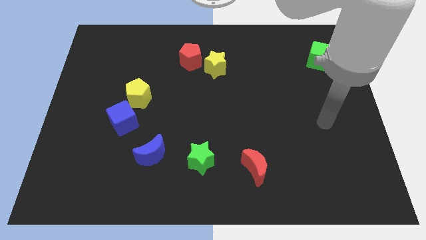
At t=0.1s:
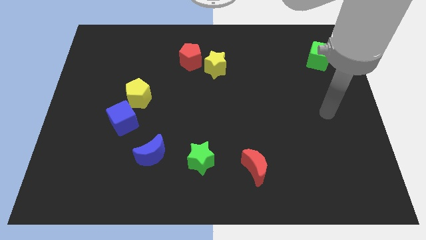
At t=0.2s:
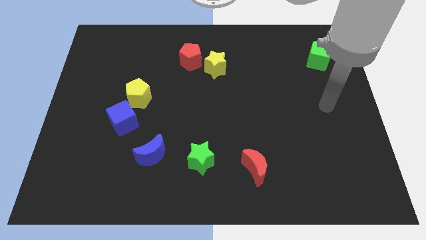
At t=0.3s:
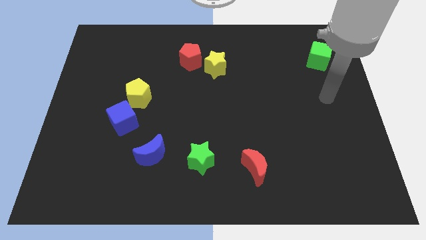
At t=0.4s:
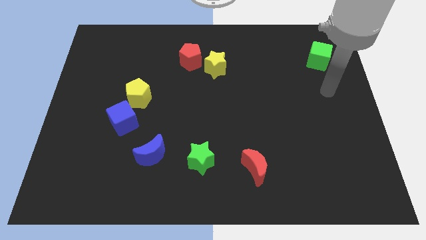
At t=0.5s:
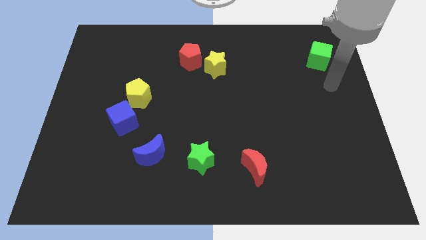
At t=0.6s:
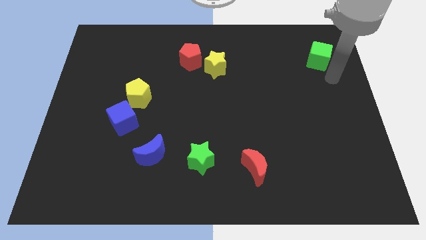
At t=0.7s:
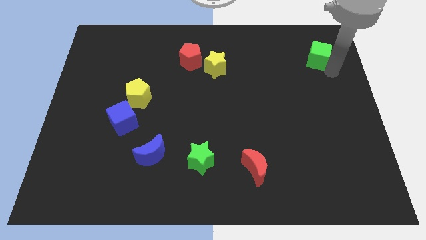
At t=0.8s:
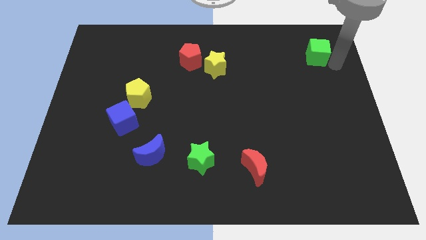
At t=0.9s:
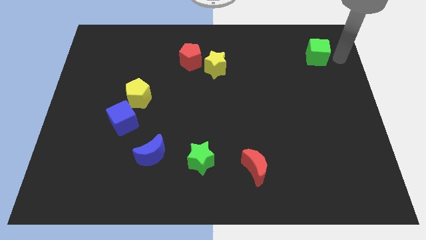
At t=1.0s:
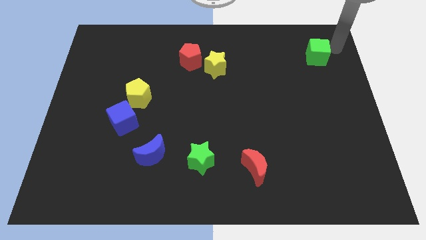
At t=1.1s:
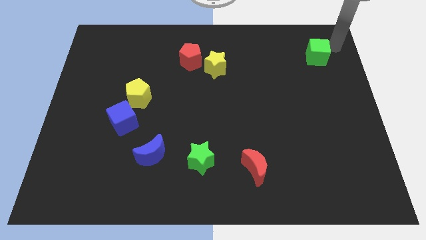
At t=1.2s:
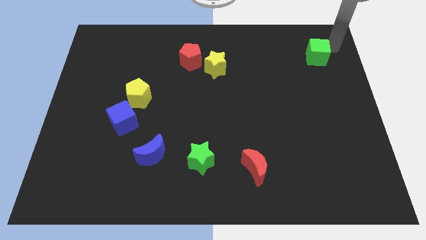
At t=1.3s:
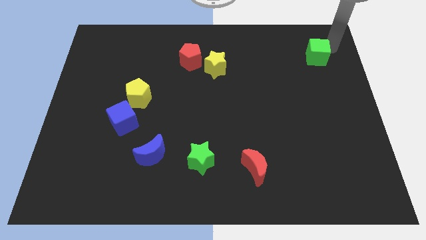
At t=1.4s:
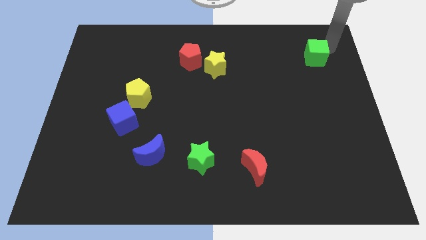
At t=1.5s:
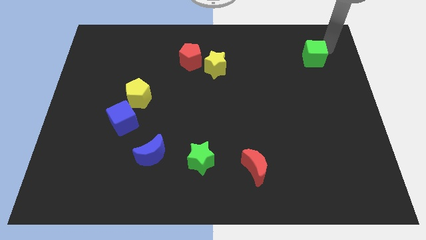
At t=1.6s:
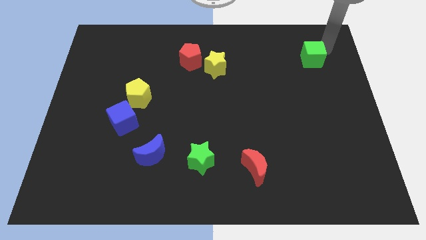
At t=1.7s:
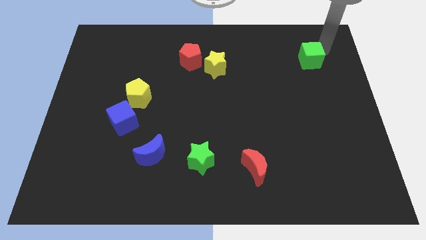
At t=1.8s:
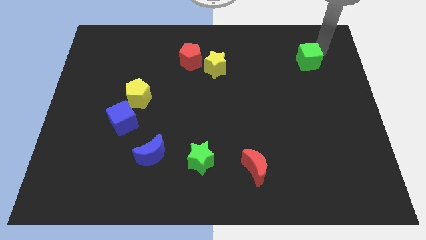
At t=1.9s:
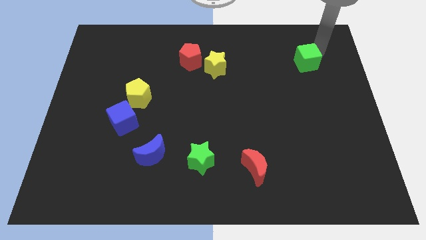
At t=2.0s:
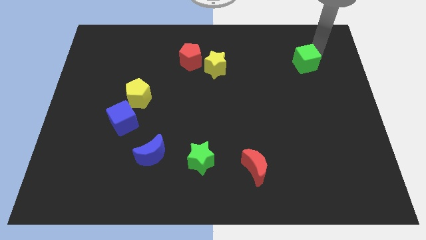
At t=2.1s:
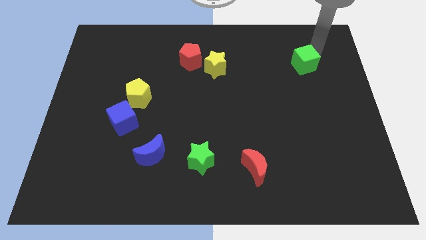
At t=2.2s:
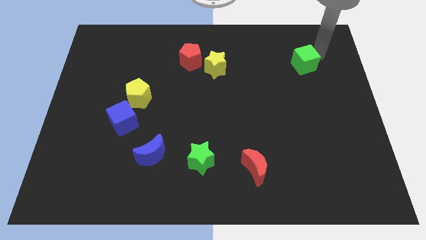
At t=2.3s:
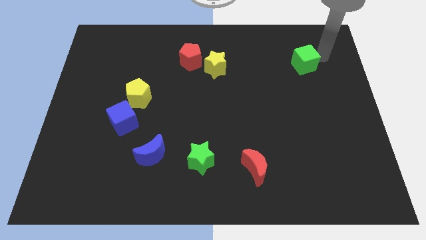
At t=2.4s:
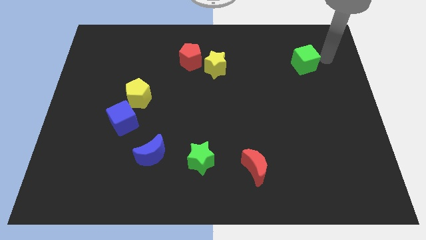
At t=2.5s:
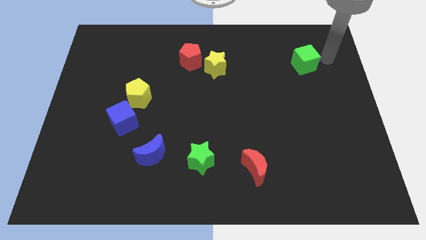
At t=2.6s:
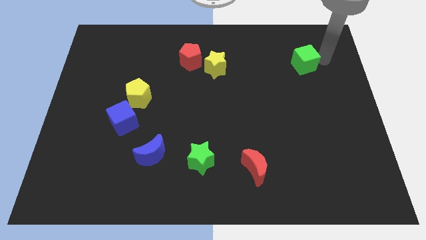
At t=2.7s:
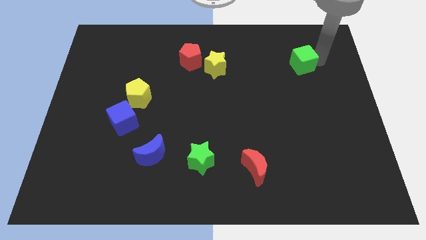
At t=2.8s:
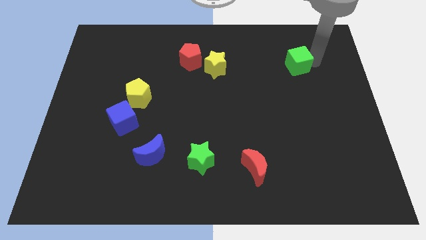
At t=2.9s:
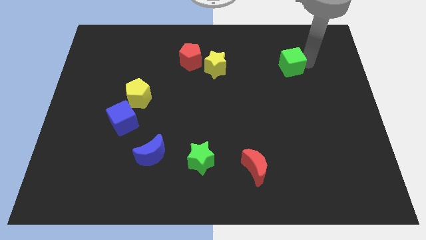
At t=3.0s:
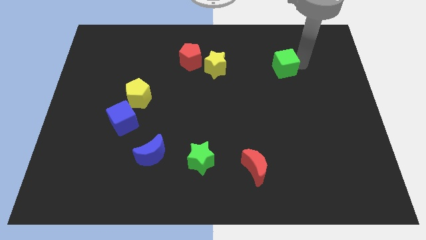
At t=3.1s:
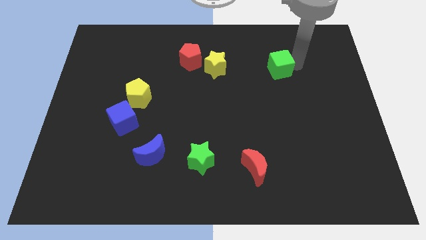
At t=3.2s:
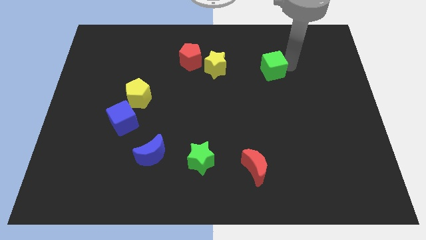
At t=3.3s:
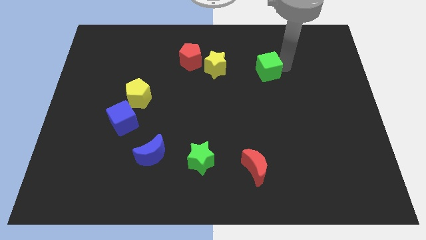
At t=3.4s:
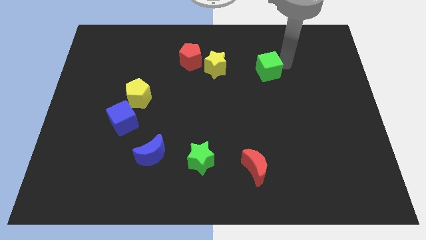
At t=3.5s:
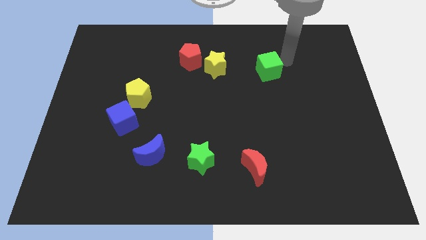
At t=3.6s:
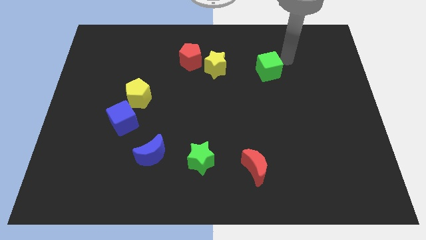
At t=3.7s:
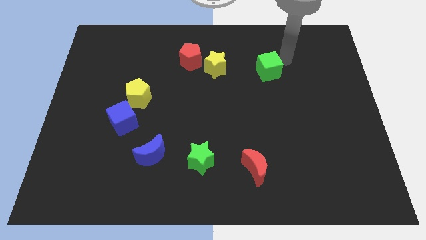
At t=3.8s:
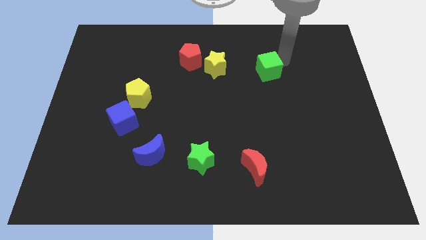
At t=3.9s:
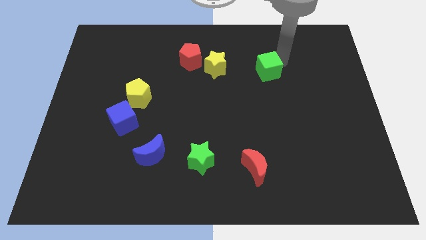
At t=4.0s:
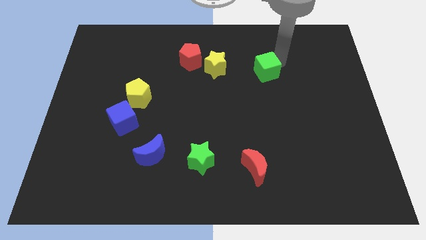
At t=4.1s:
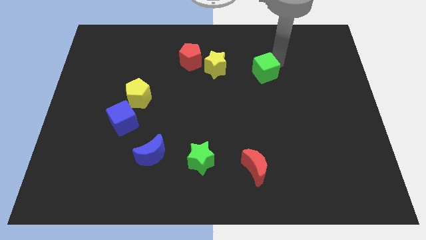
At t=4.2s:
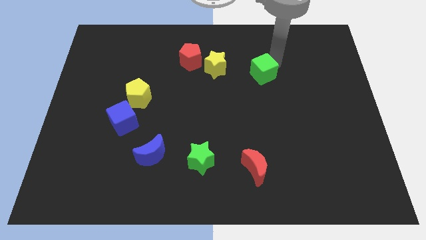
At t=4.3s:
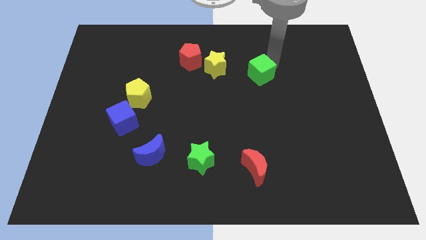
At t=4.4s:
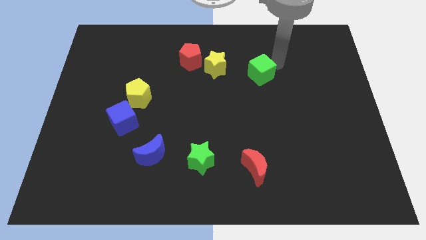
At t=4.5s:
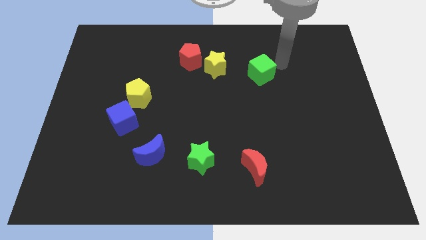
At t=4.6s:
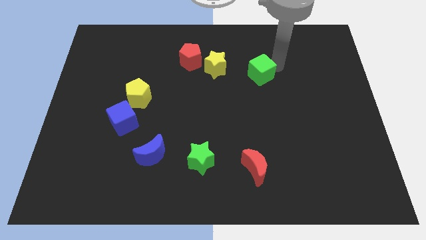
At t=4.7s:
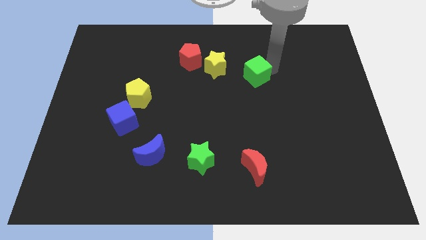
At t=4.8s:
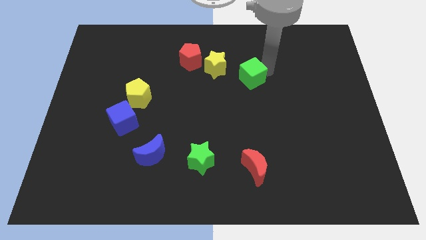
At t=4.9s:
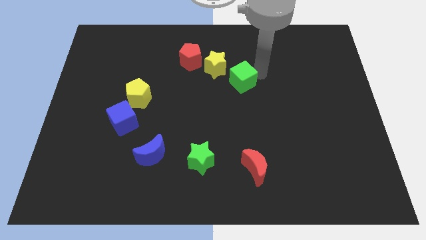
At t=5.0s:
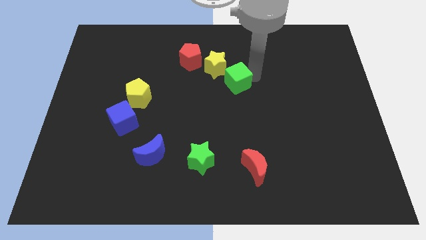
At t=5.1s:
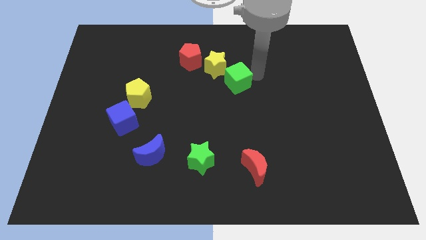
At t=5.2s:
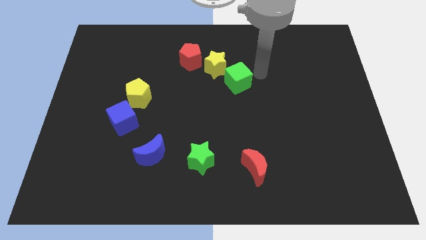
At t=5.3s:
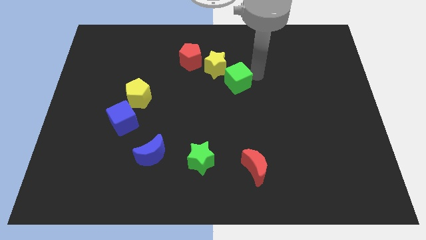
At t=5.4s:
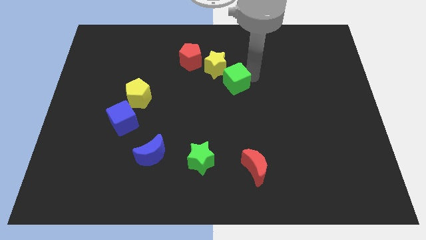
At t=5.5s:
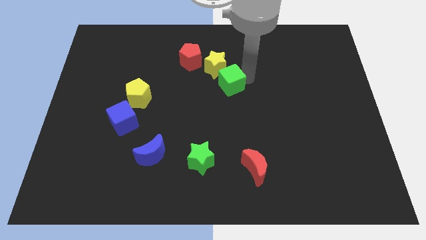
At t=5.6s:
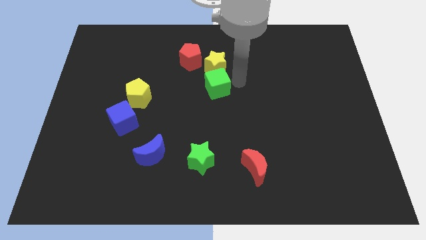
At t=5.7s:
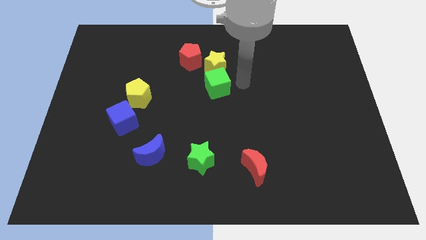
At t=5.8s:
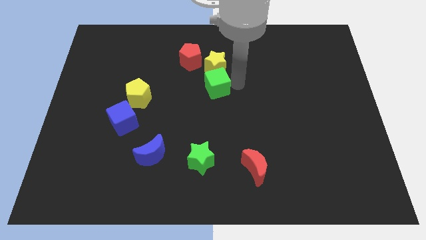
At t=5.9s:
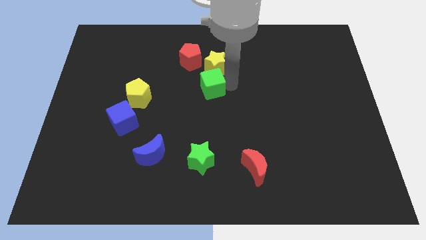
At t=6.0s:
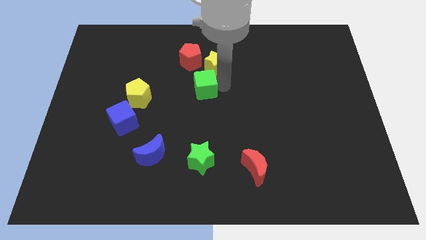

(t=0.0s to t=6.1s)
push the green cube below the red pentagon

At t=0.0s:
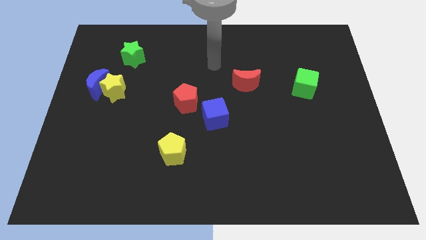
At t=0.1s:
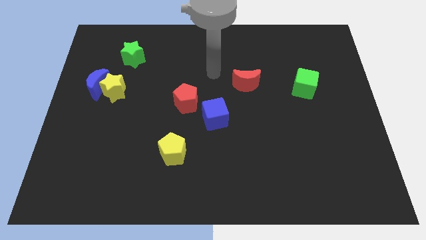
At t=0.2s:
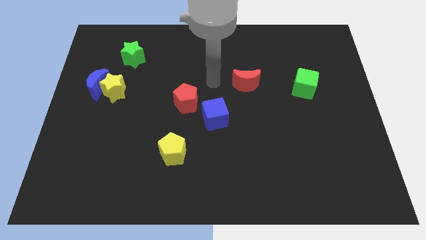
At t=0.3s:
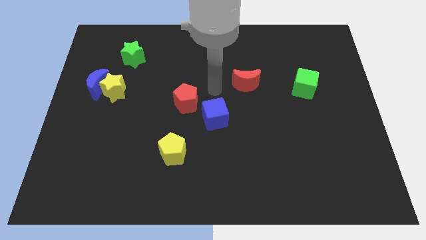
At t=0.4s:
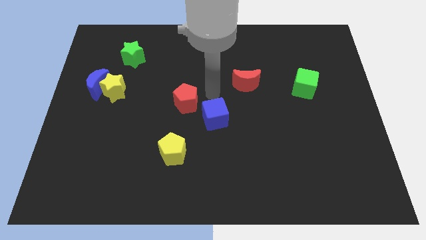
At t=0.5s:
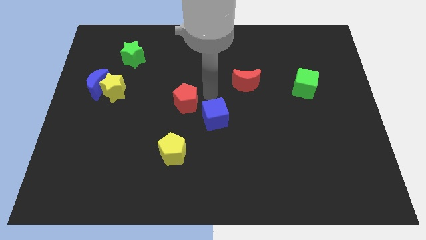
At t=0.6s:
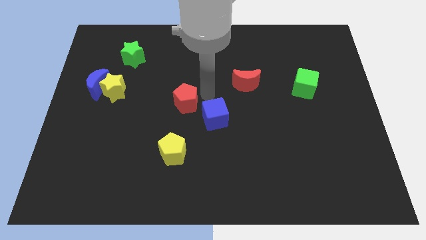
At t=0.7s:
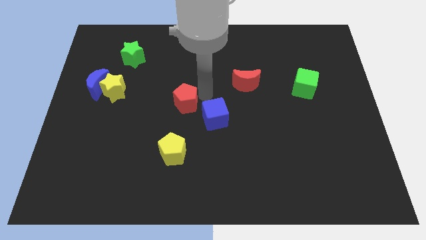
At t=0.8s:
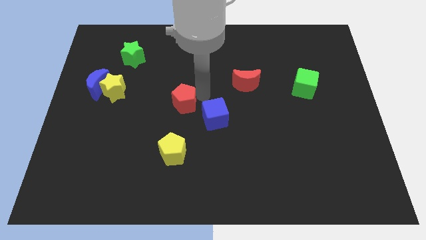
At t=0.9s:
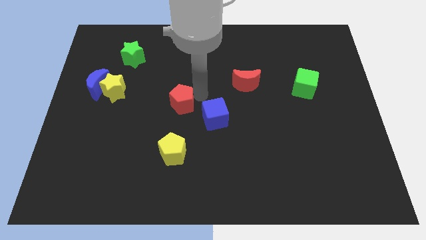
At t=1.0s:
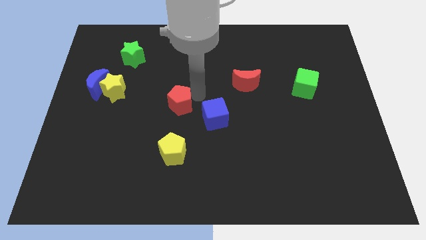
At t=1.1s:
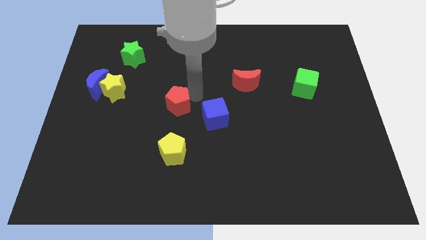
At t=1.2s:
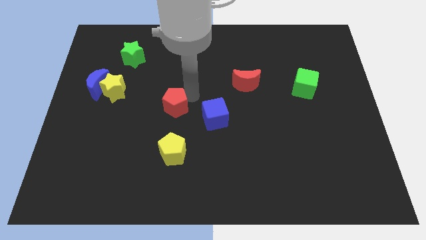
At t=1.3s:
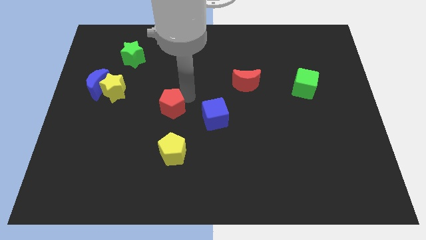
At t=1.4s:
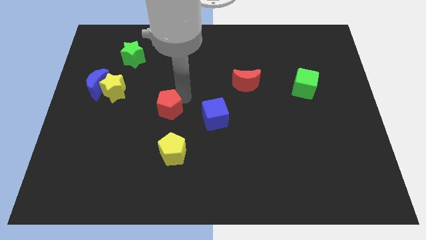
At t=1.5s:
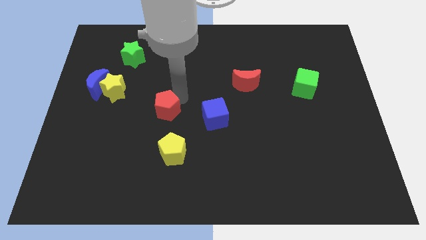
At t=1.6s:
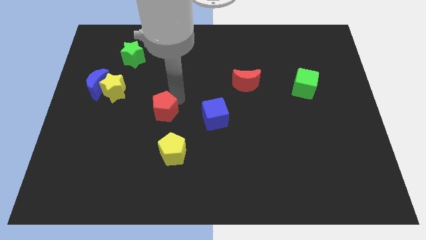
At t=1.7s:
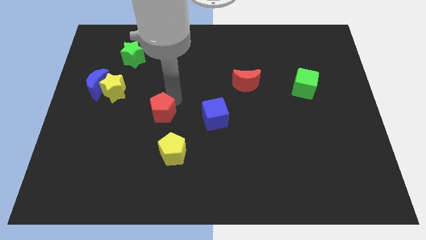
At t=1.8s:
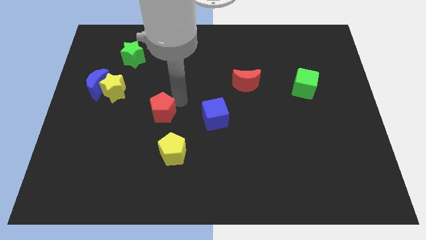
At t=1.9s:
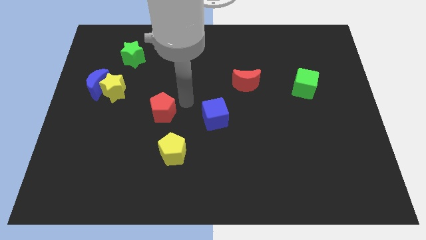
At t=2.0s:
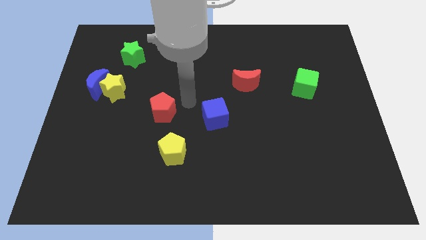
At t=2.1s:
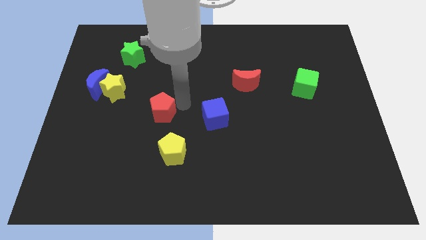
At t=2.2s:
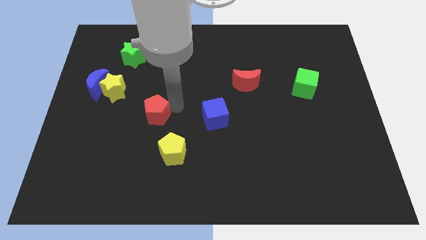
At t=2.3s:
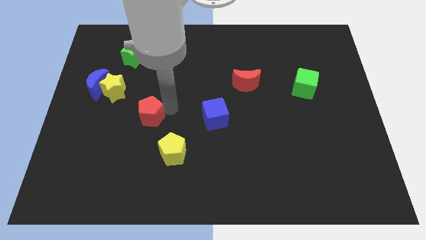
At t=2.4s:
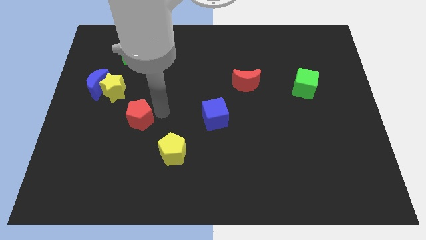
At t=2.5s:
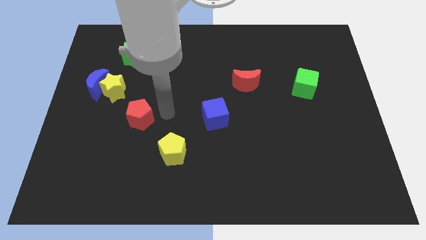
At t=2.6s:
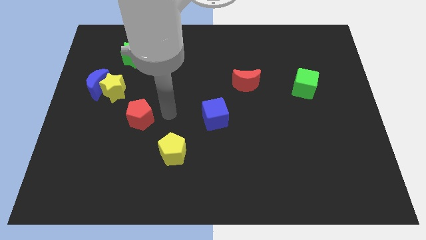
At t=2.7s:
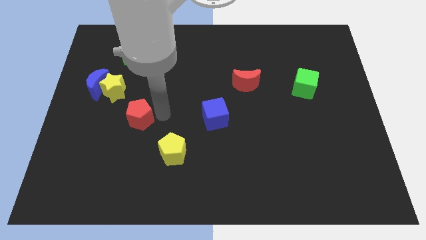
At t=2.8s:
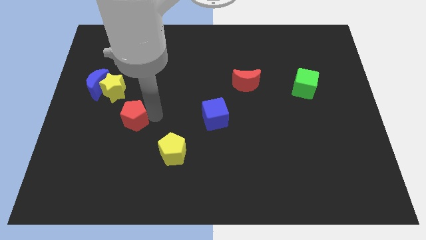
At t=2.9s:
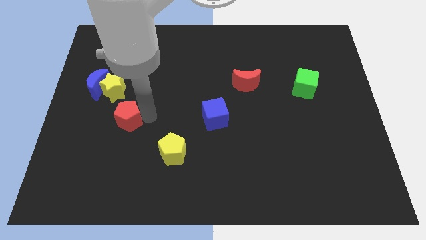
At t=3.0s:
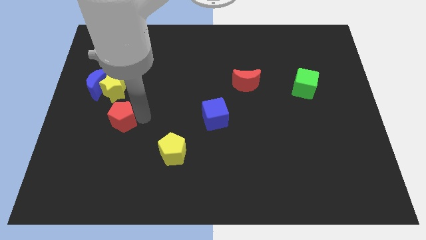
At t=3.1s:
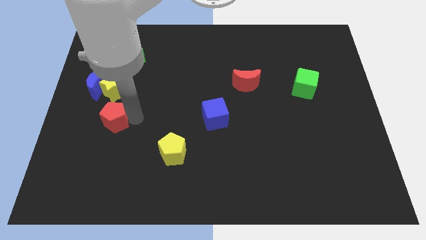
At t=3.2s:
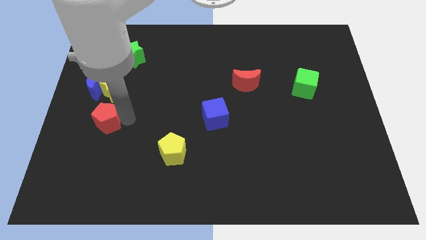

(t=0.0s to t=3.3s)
slide the red pentagon to the bottom of the blue moon
